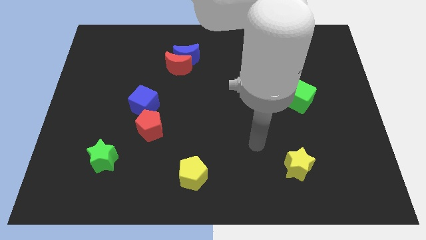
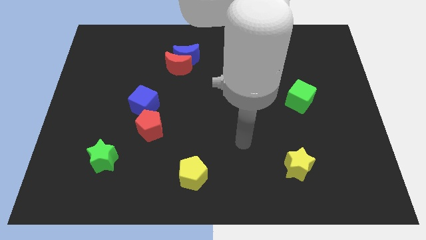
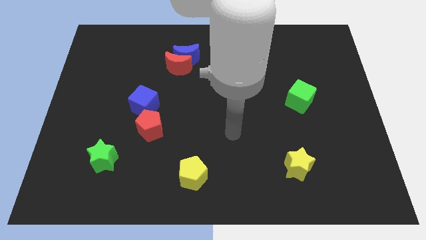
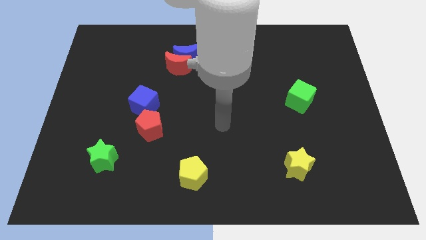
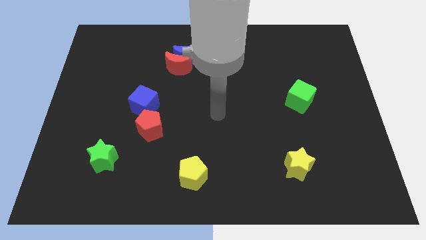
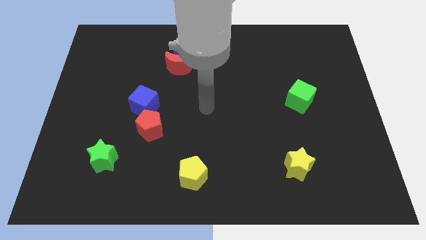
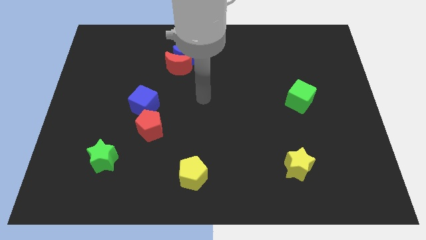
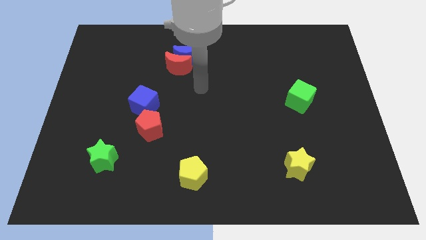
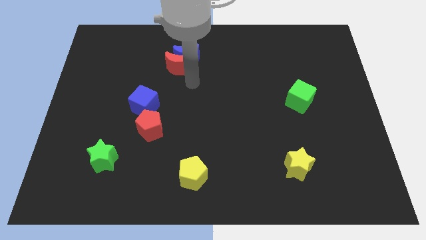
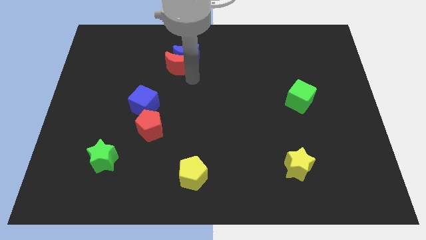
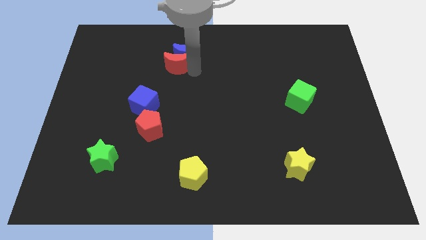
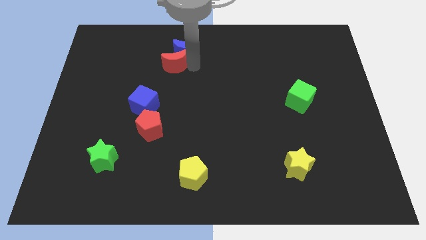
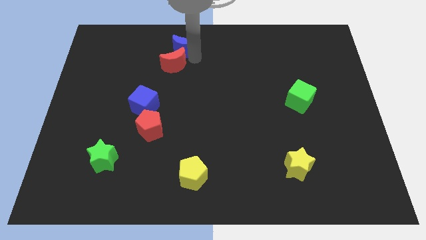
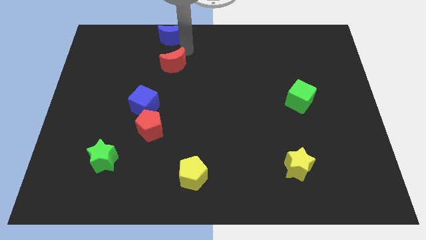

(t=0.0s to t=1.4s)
move the red moon away from the blue moon

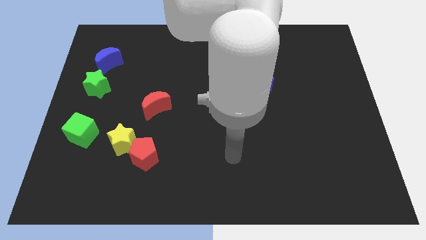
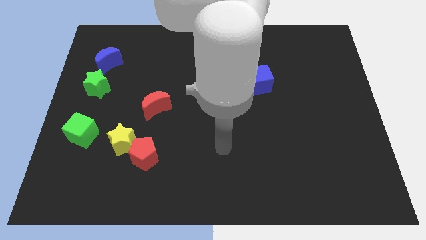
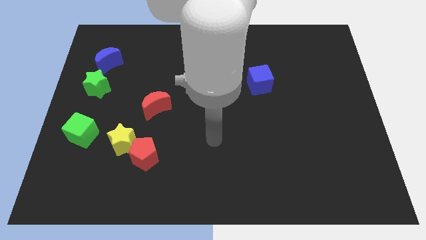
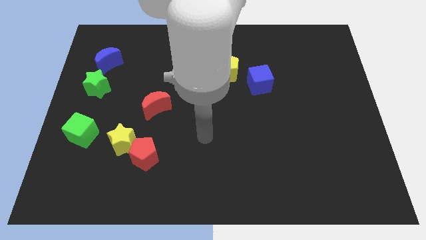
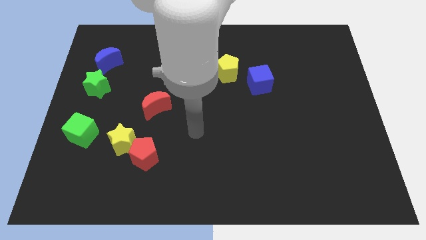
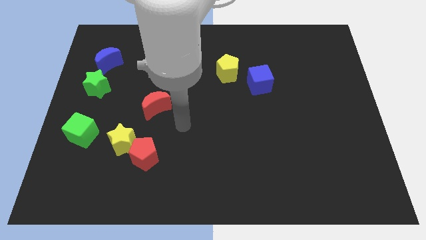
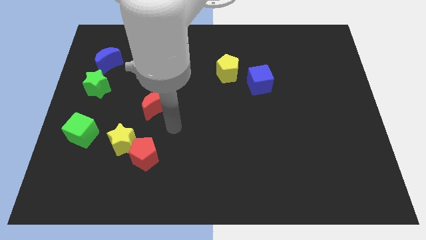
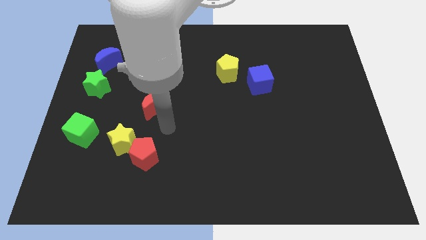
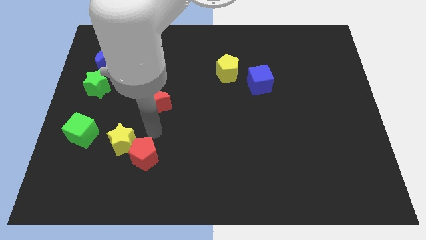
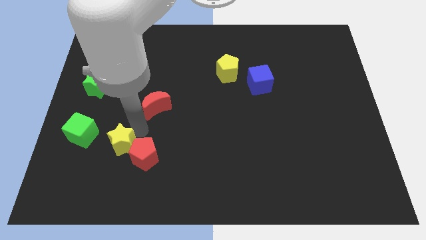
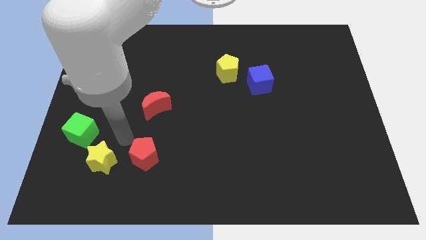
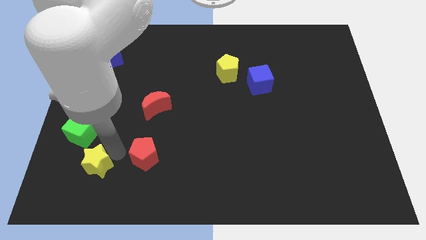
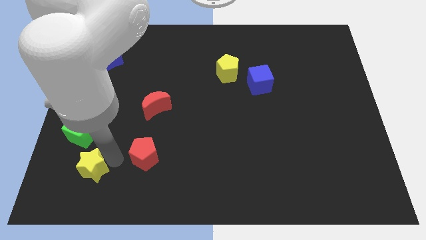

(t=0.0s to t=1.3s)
move the red pentagon away from the yellow star

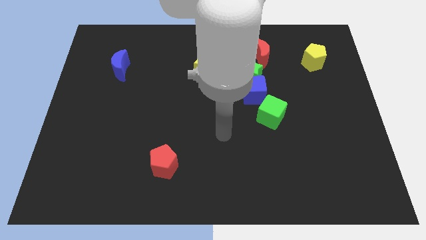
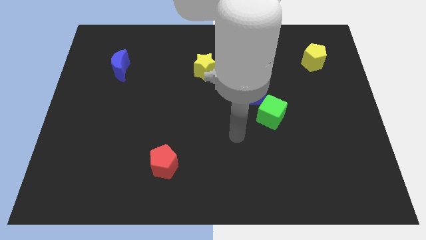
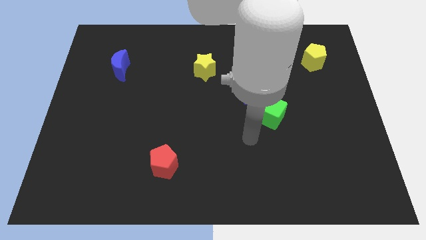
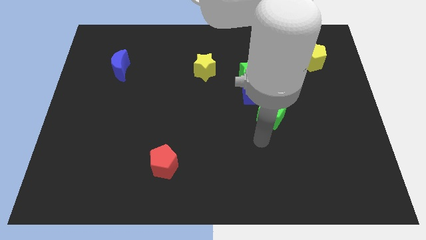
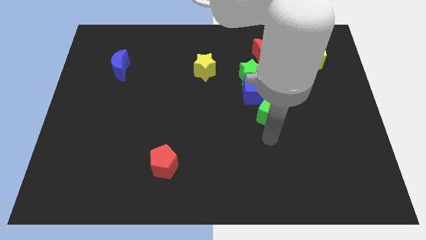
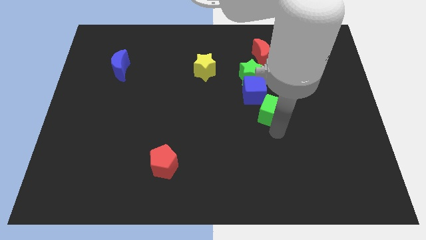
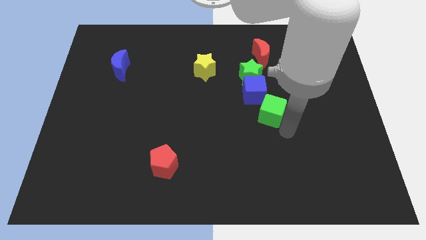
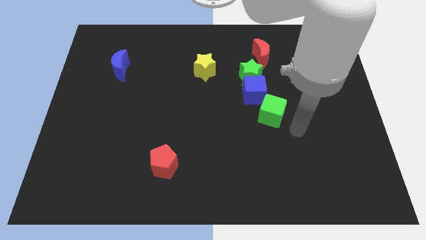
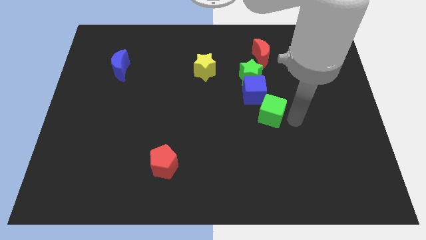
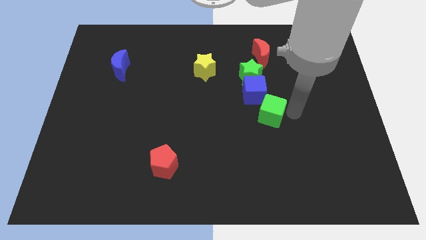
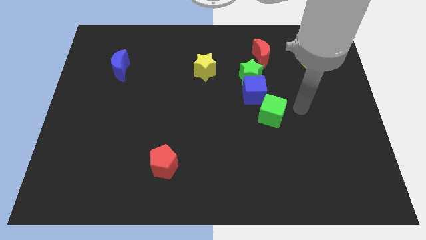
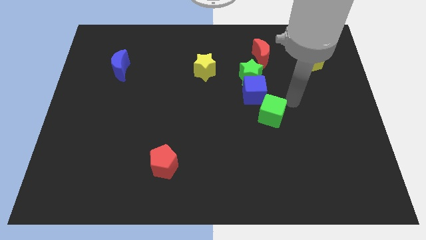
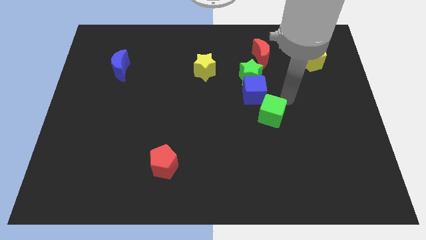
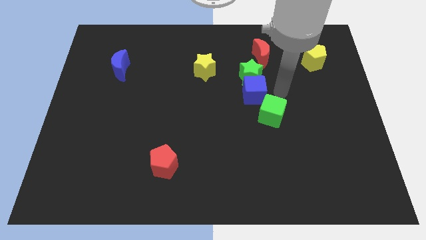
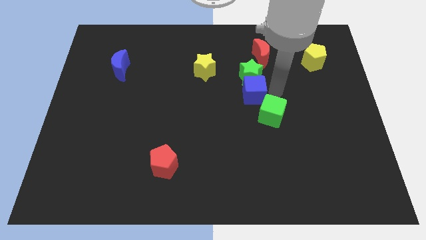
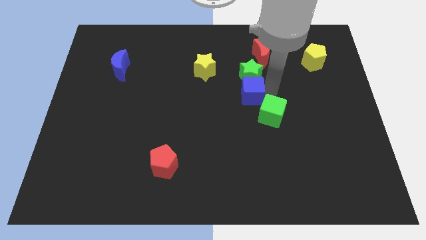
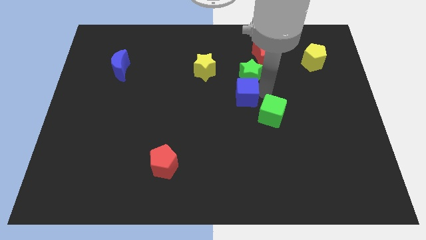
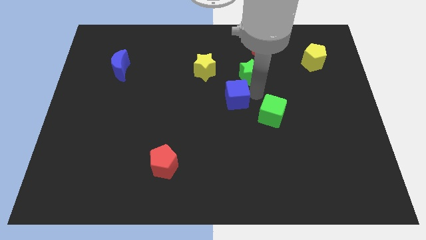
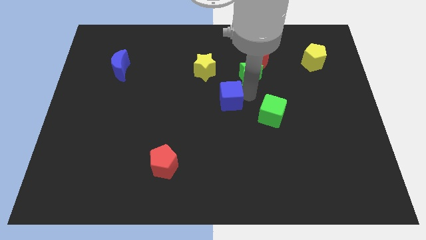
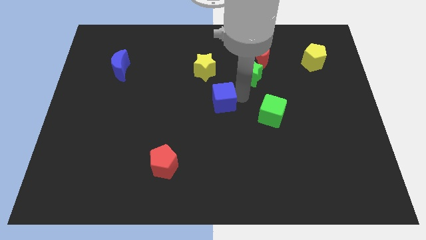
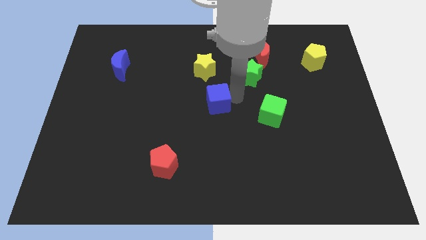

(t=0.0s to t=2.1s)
move the blue cube away from the green star and green cube

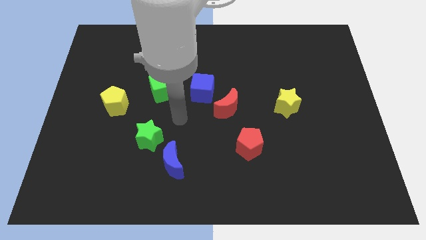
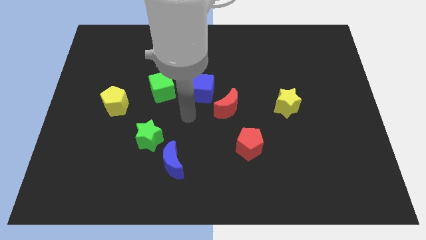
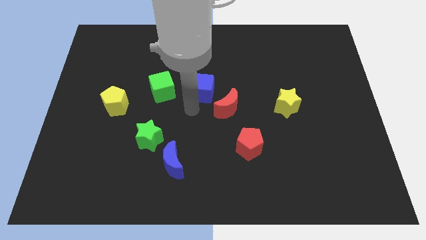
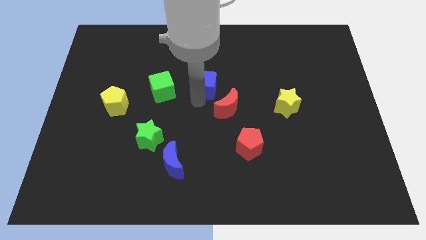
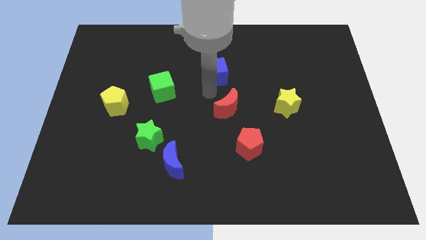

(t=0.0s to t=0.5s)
move the red moon away from the blue cube

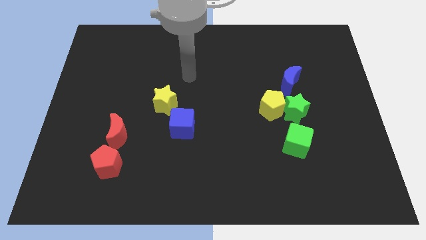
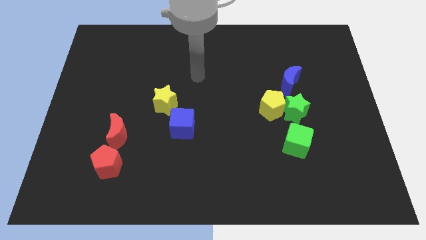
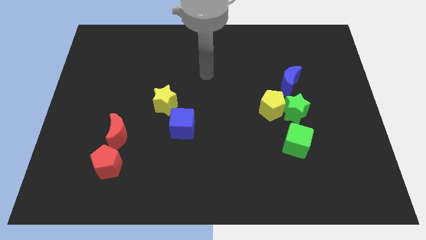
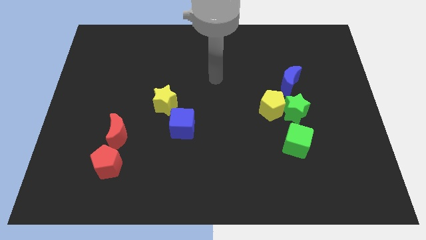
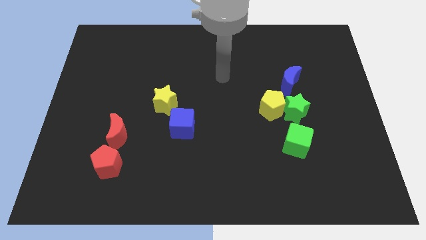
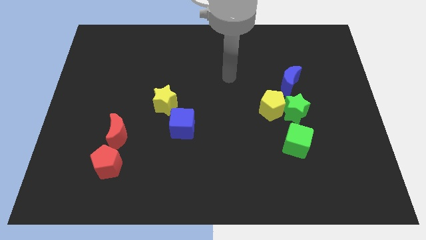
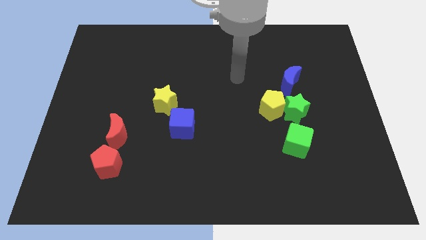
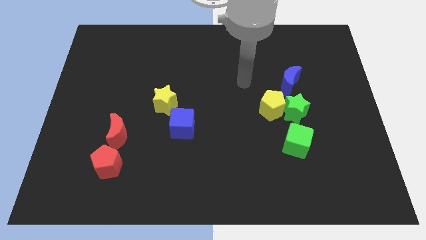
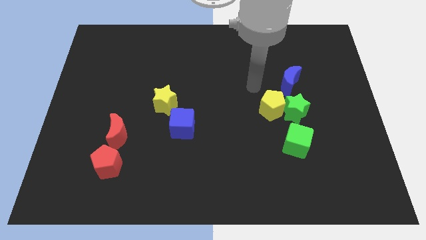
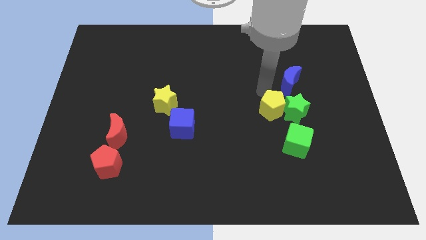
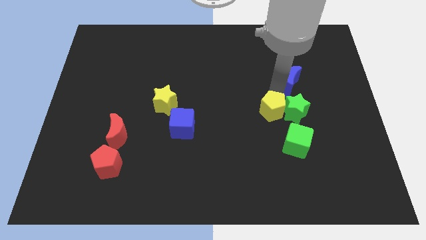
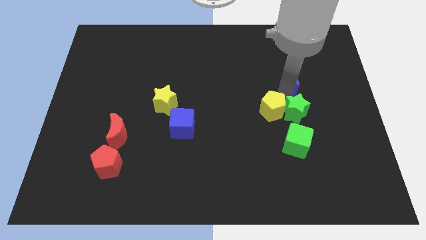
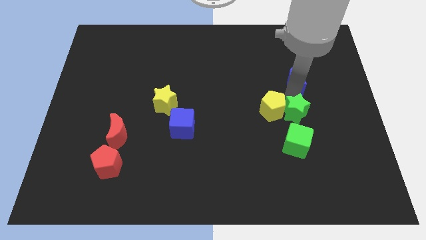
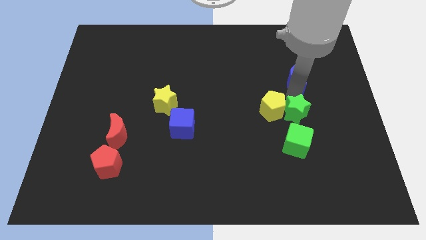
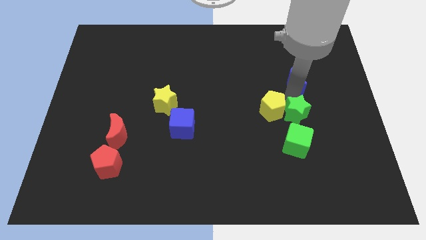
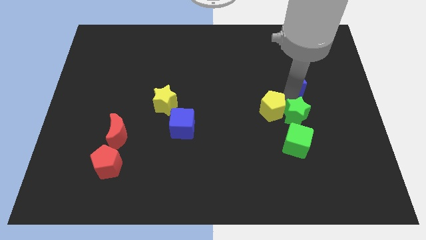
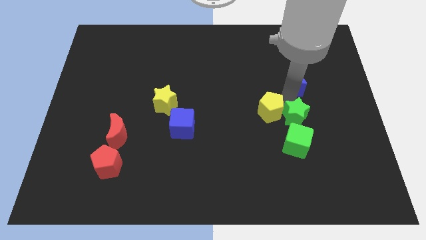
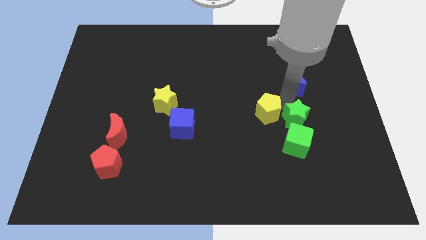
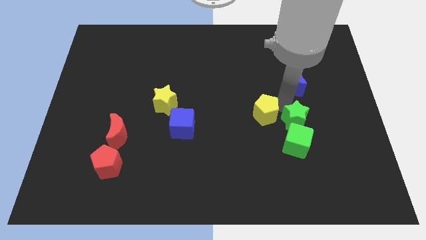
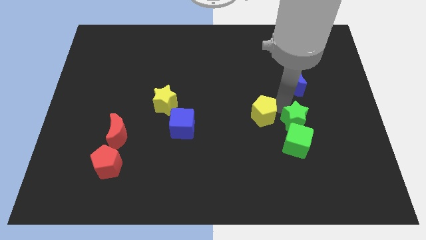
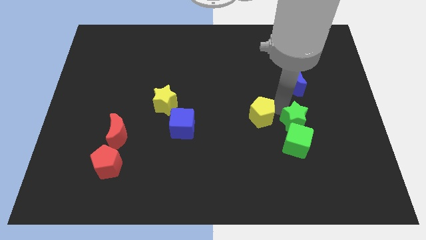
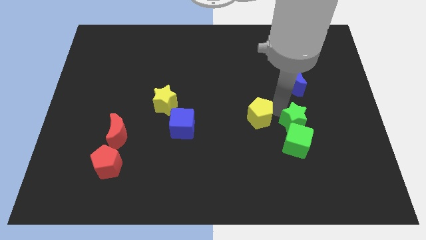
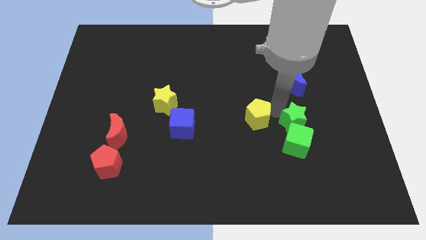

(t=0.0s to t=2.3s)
pull the yellow pentagon apart from the green star and blue moon

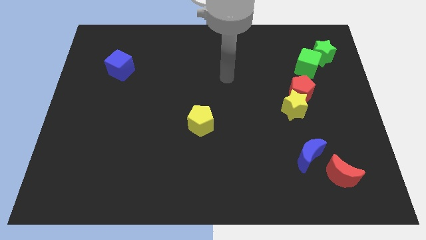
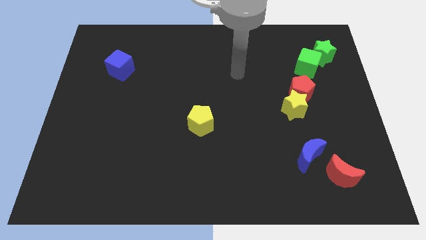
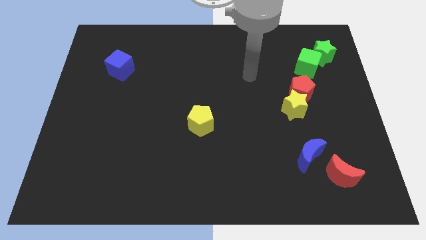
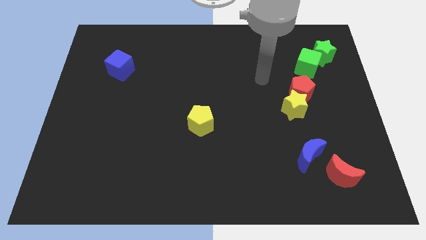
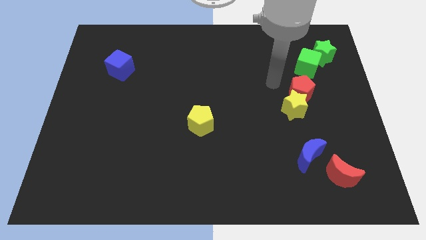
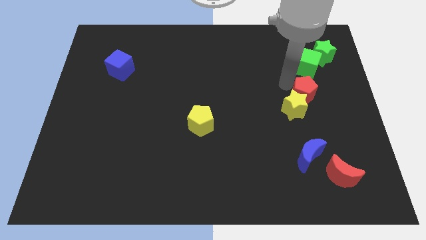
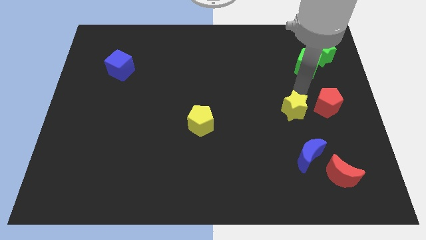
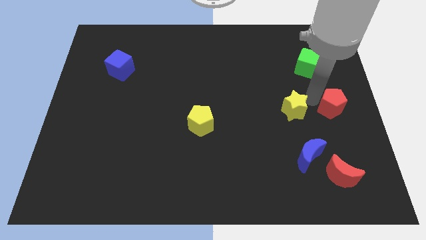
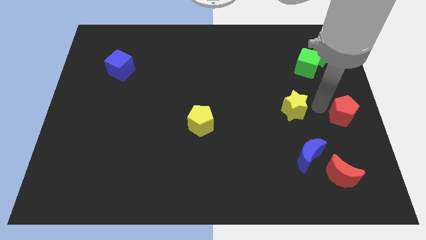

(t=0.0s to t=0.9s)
move the yellow star away from the red pentagon

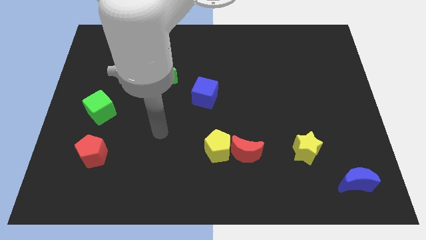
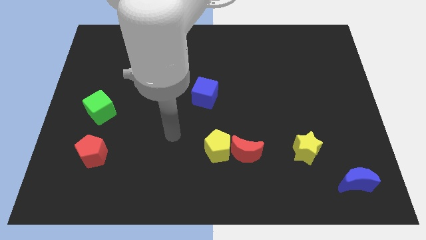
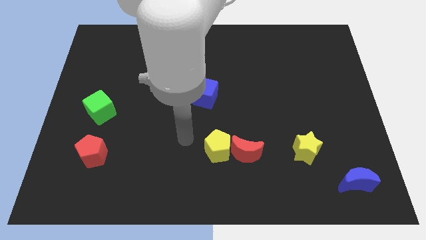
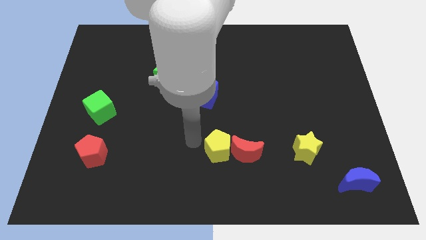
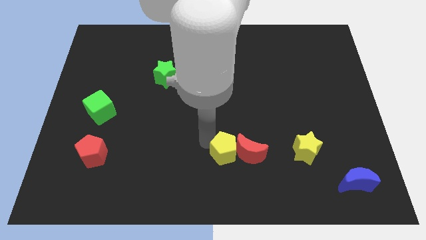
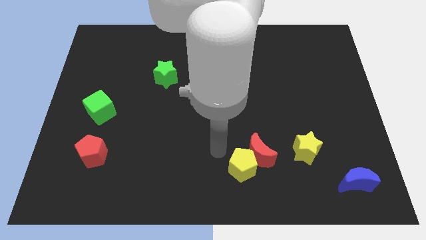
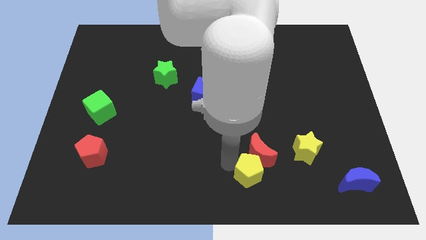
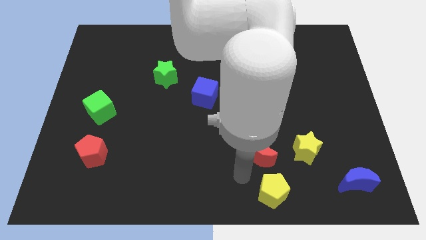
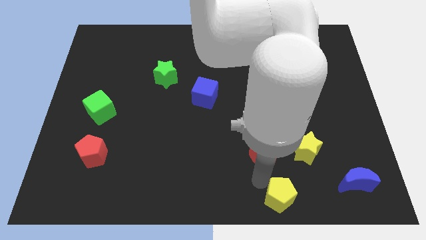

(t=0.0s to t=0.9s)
pull the red moon apart from the yellow pentagon
